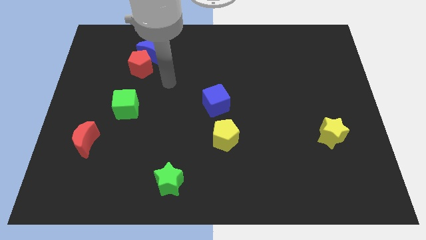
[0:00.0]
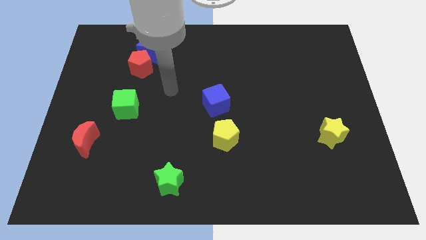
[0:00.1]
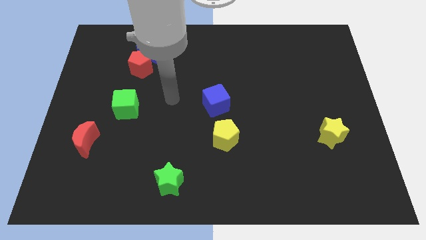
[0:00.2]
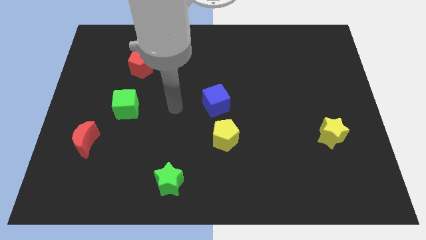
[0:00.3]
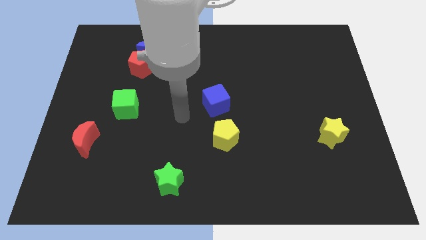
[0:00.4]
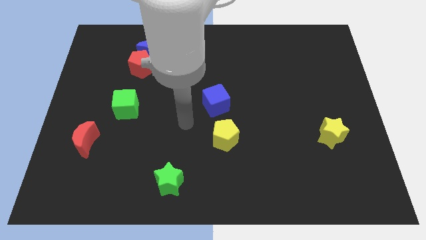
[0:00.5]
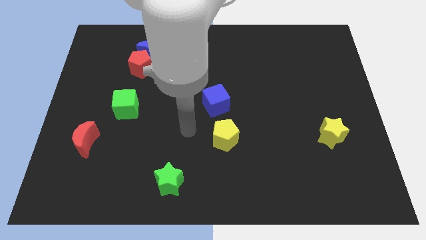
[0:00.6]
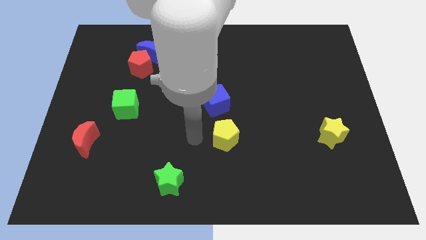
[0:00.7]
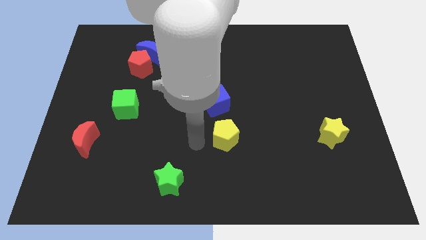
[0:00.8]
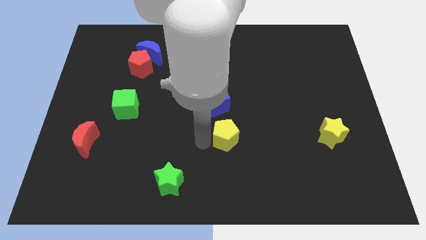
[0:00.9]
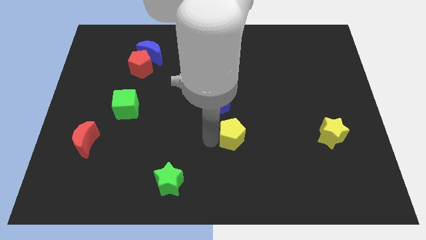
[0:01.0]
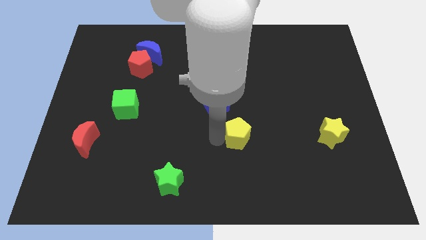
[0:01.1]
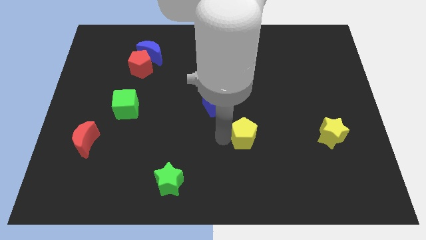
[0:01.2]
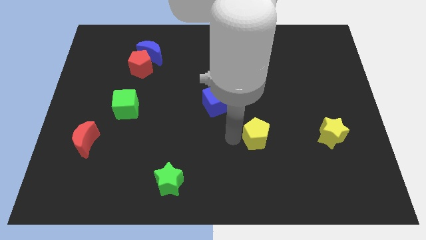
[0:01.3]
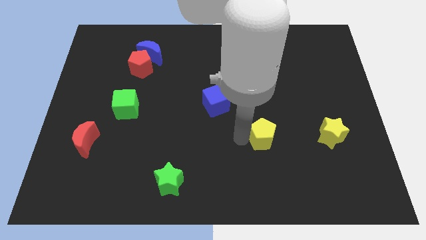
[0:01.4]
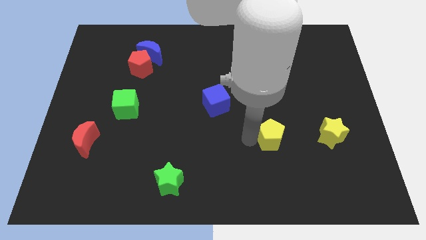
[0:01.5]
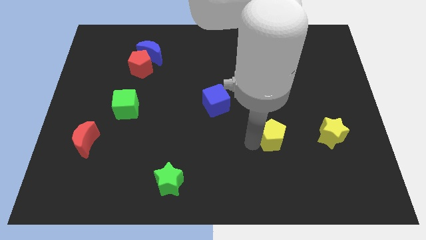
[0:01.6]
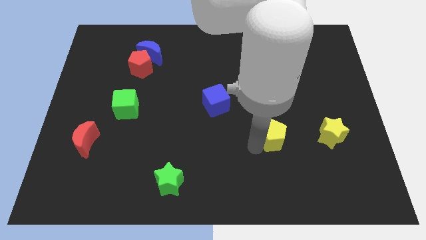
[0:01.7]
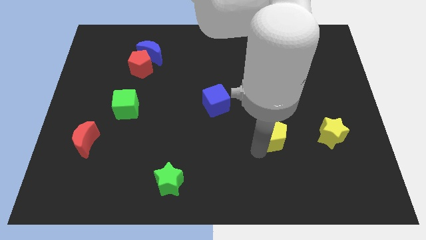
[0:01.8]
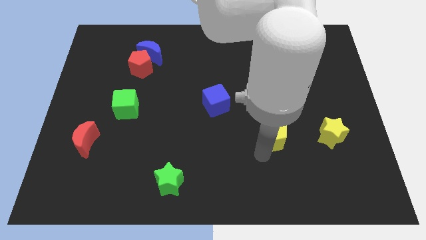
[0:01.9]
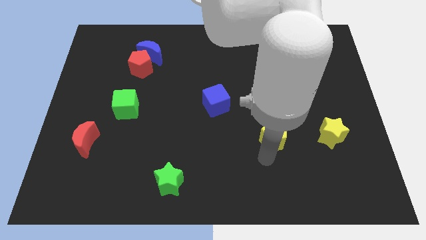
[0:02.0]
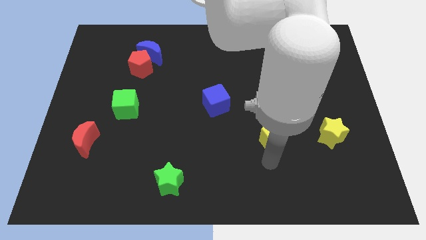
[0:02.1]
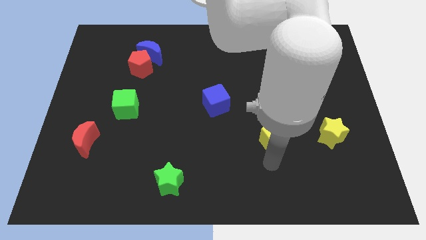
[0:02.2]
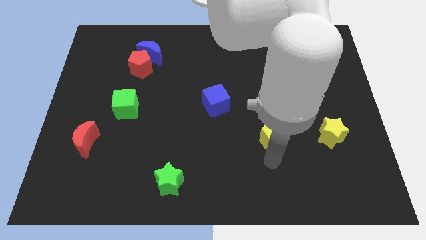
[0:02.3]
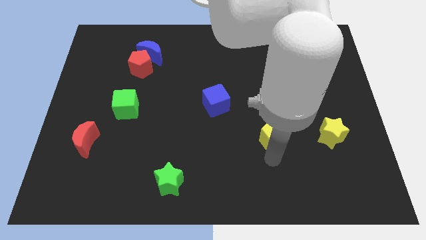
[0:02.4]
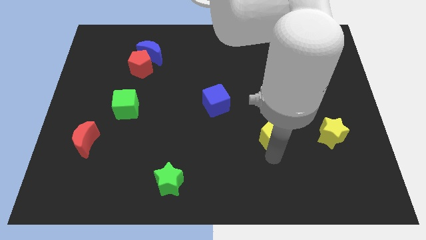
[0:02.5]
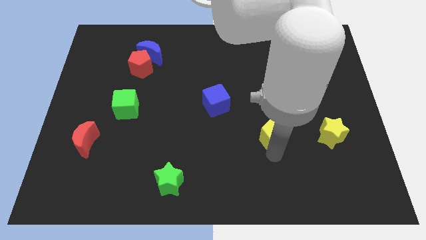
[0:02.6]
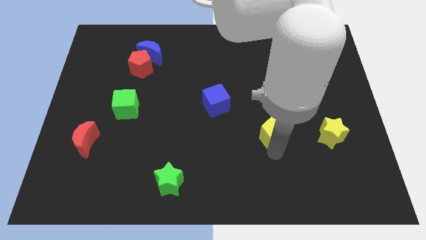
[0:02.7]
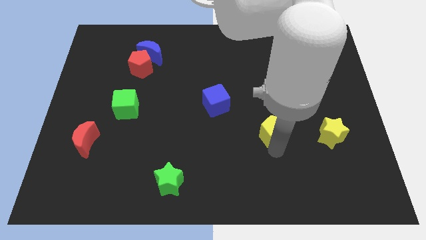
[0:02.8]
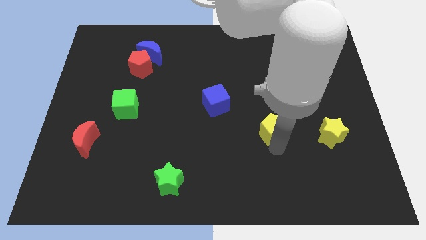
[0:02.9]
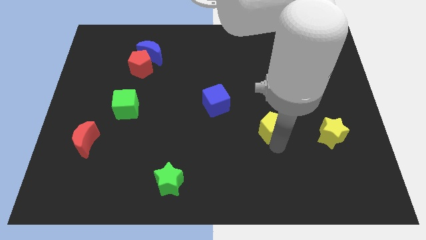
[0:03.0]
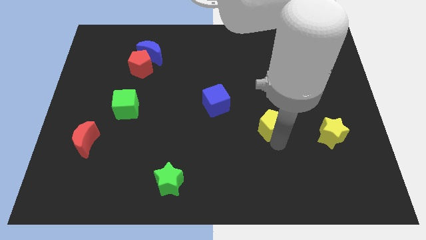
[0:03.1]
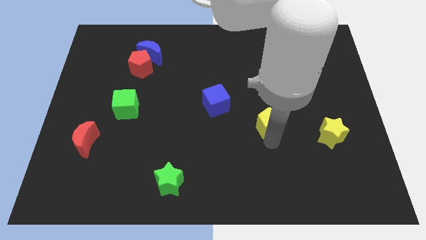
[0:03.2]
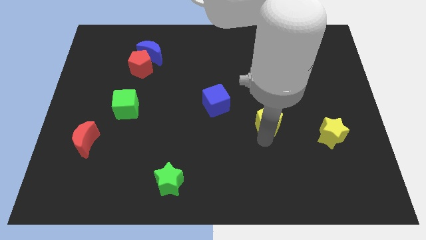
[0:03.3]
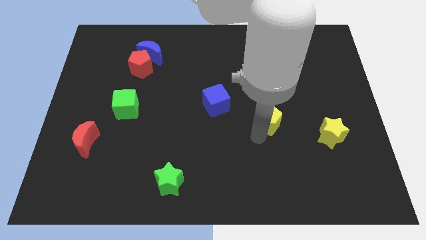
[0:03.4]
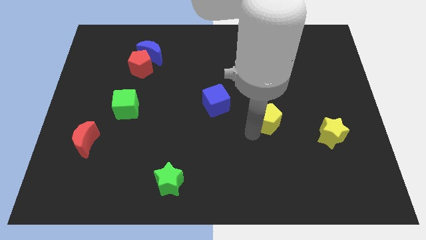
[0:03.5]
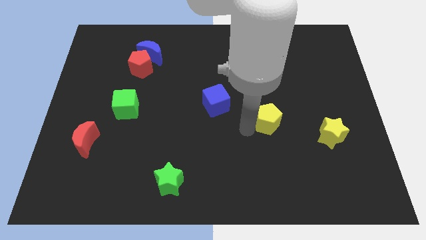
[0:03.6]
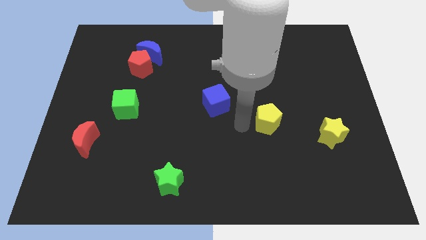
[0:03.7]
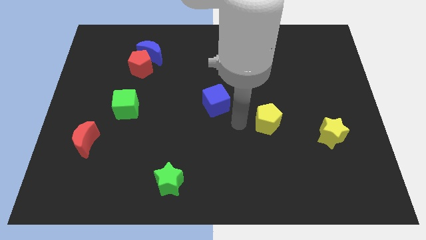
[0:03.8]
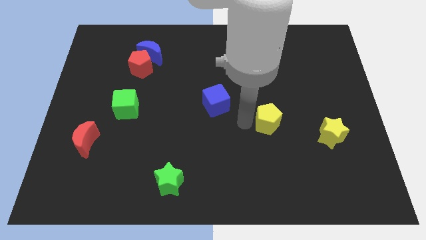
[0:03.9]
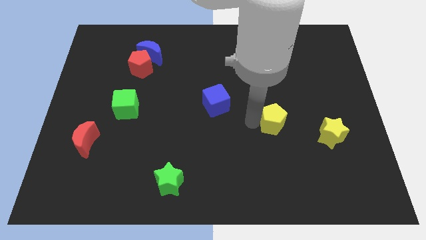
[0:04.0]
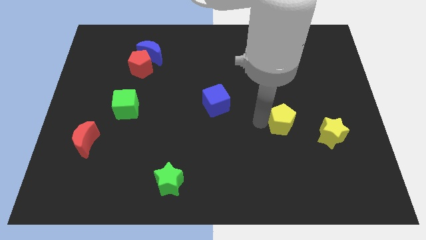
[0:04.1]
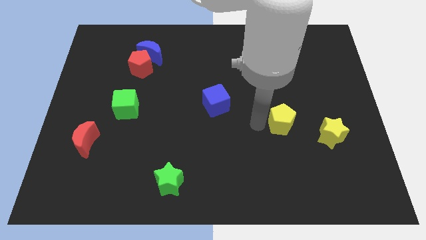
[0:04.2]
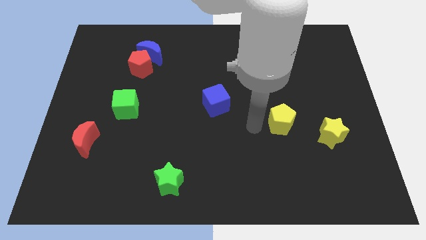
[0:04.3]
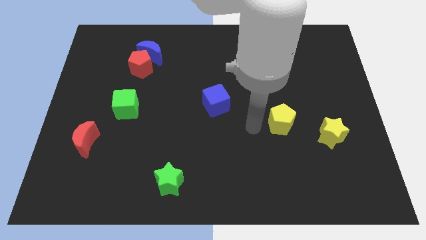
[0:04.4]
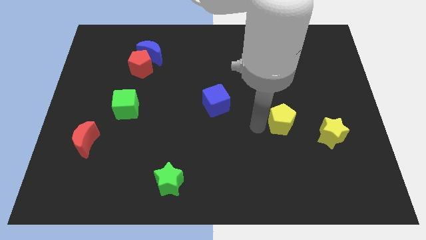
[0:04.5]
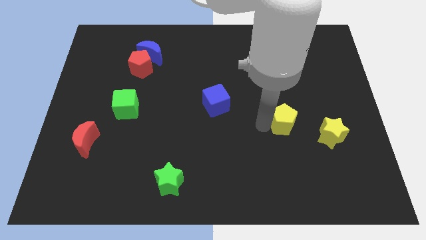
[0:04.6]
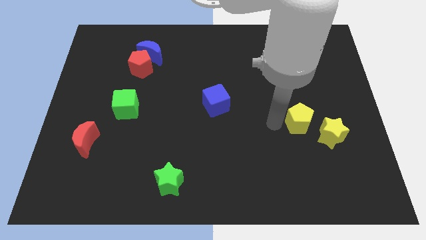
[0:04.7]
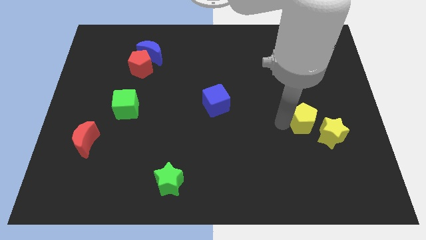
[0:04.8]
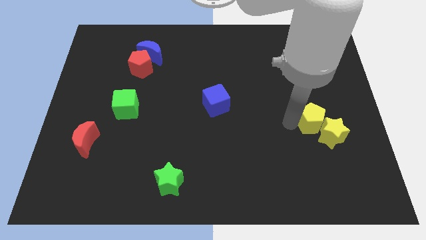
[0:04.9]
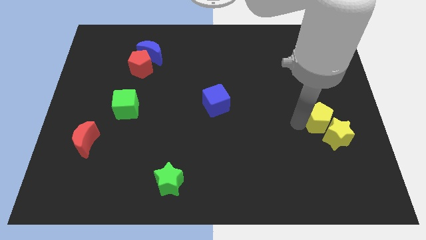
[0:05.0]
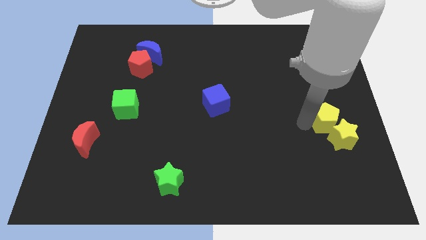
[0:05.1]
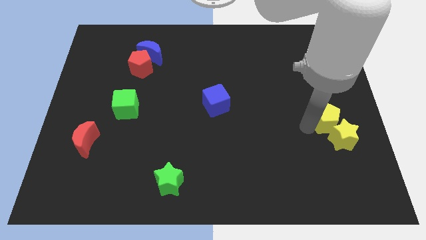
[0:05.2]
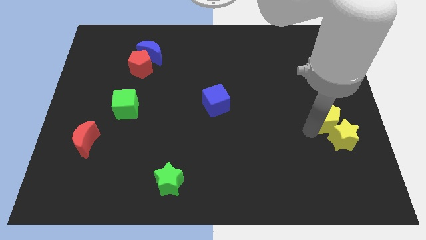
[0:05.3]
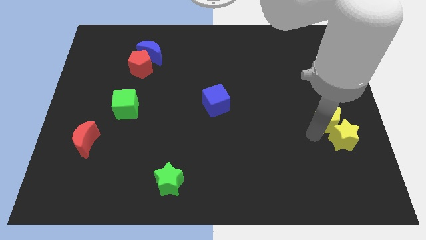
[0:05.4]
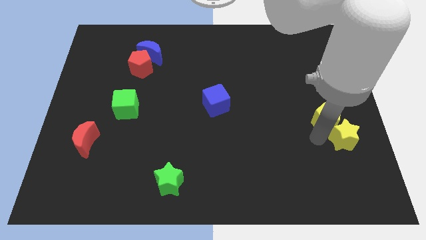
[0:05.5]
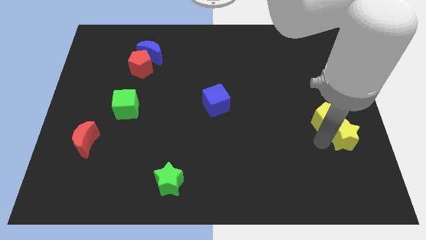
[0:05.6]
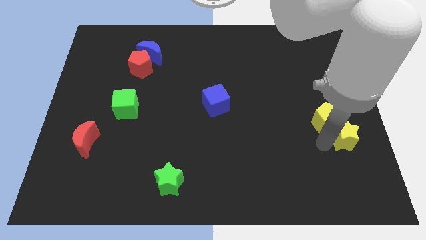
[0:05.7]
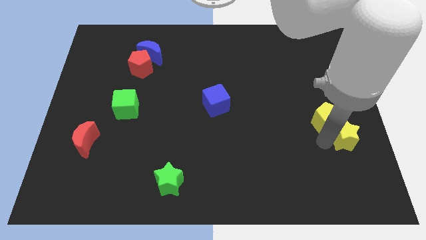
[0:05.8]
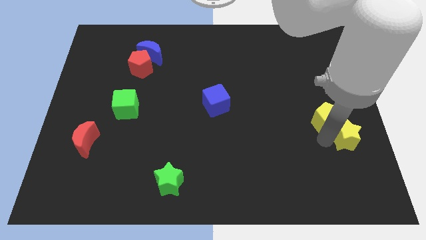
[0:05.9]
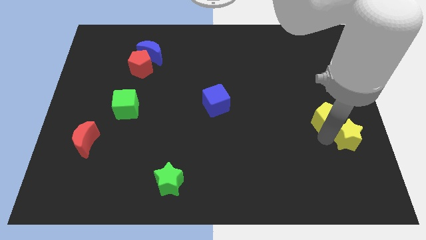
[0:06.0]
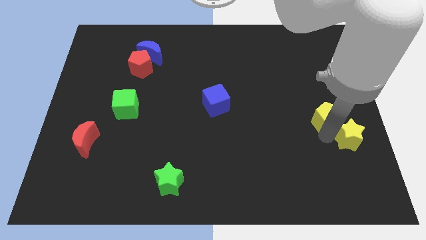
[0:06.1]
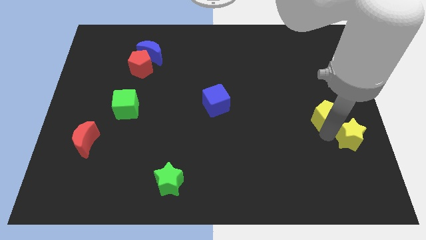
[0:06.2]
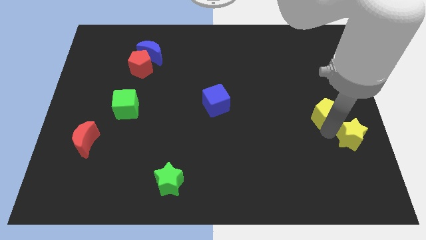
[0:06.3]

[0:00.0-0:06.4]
move the yellow pentagon to the center right
